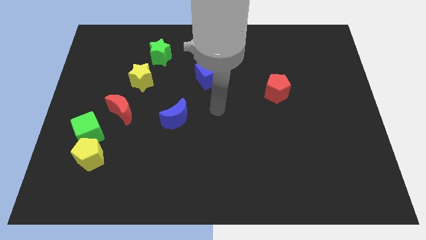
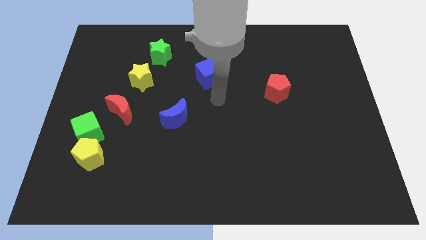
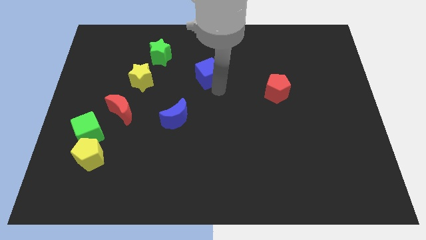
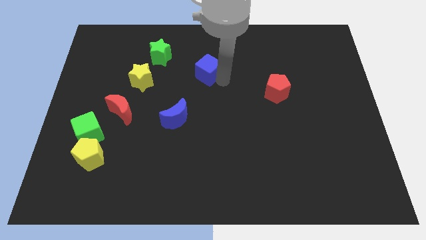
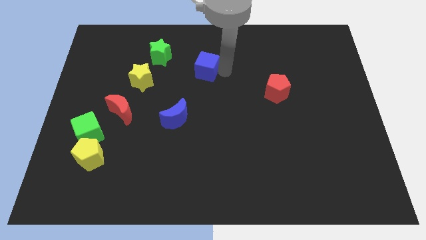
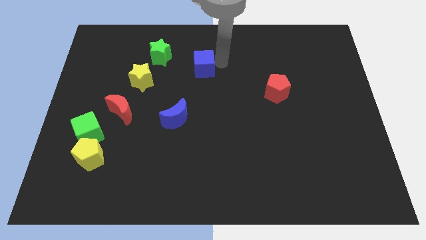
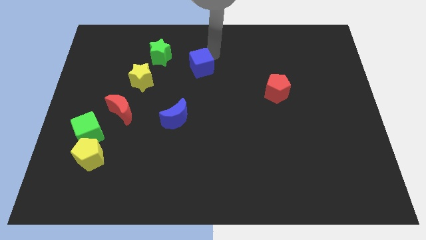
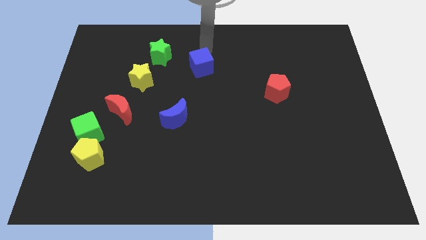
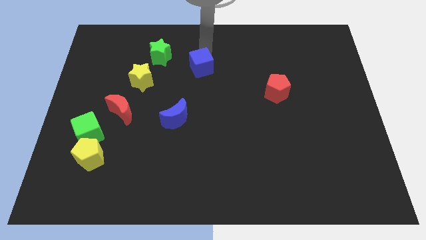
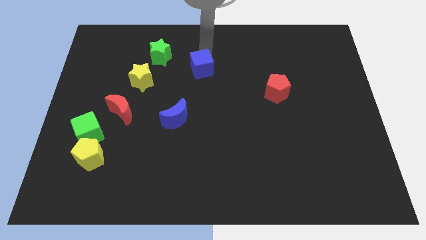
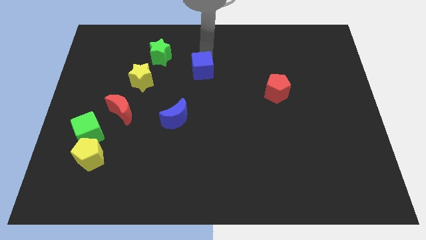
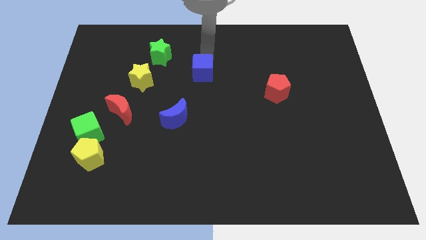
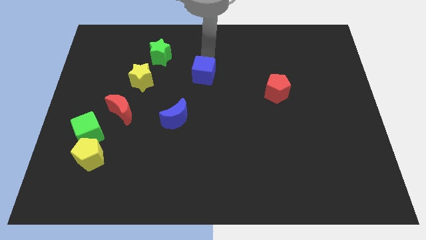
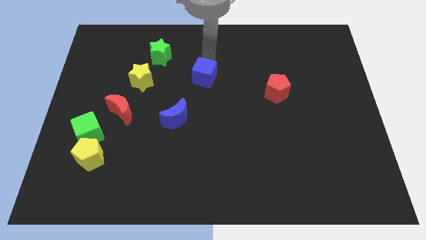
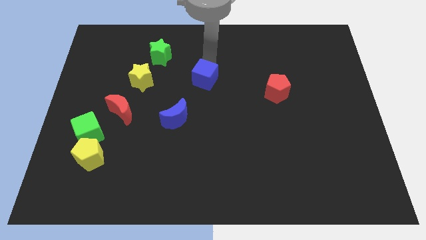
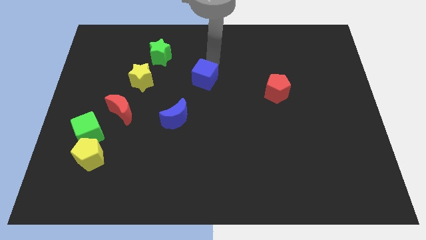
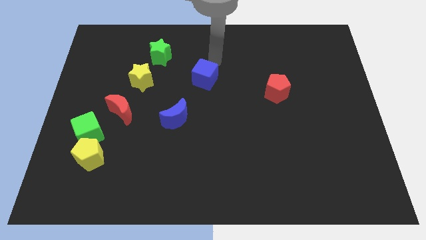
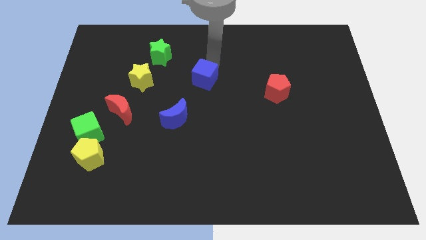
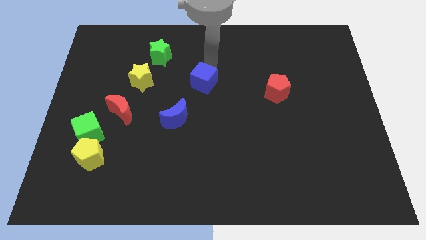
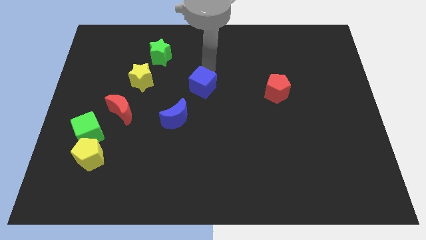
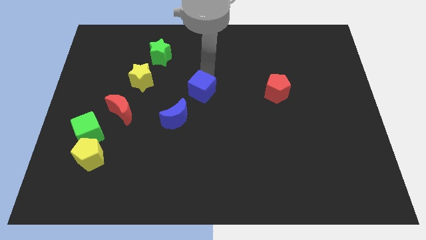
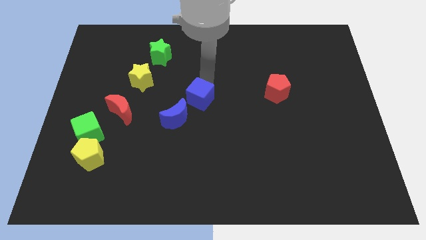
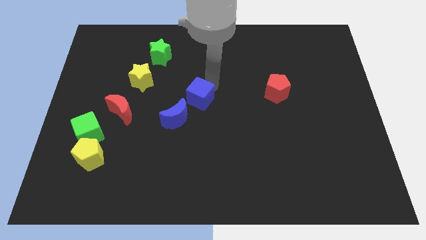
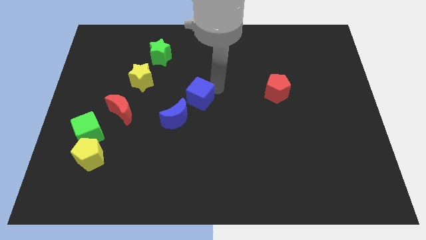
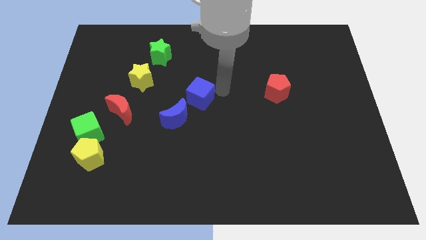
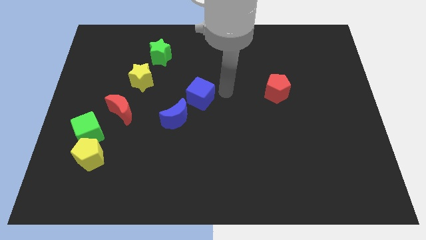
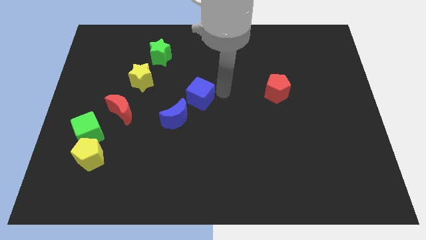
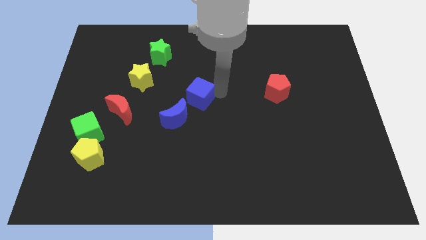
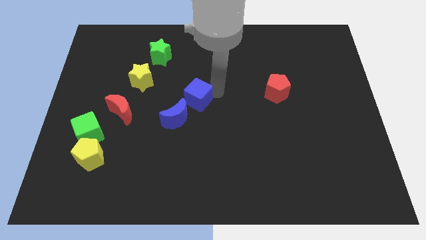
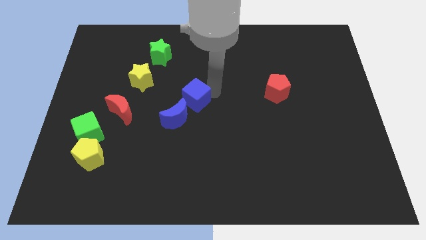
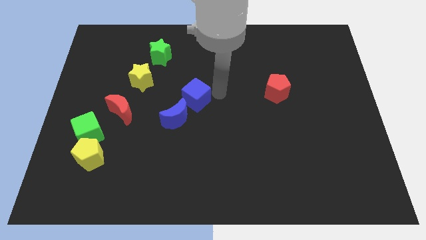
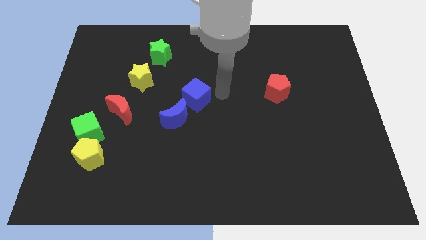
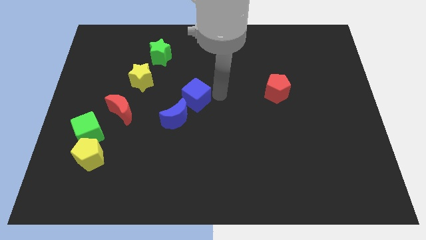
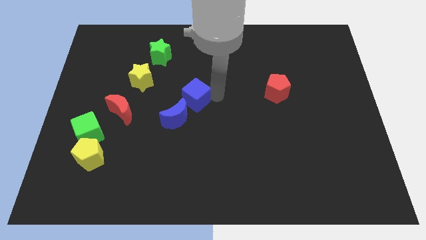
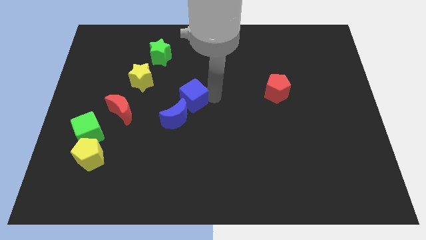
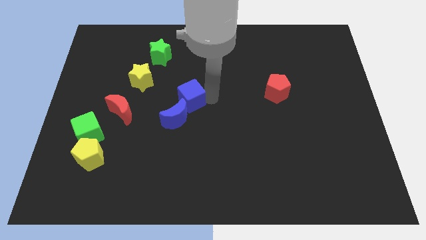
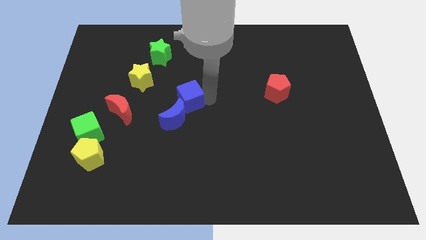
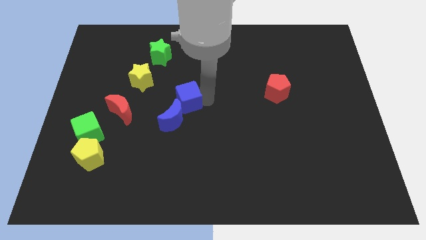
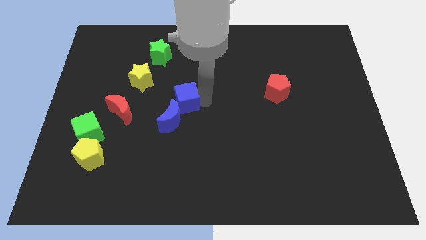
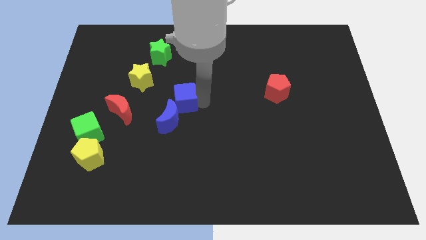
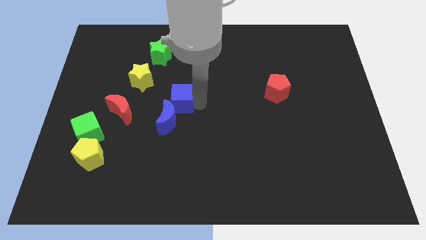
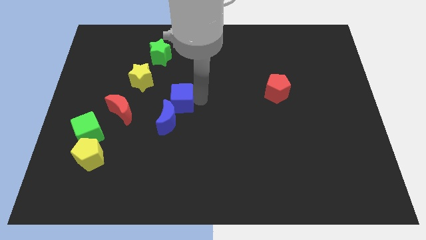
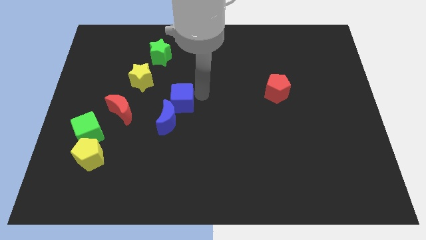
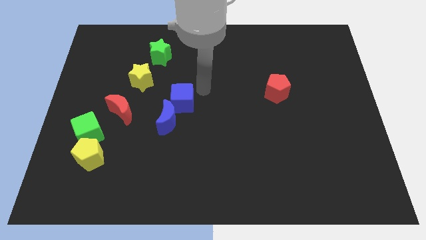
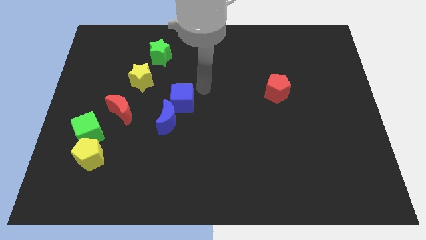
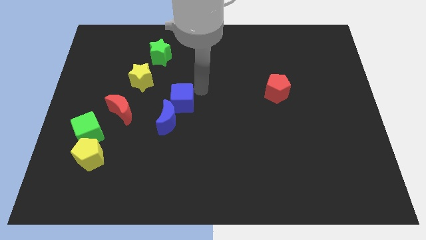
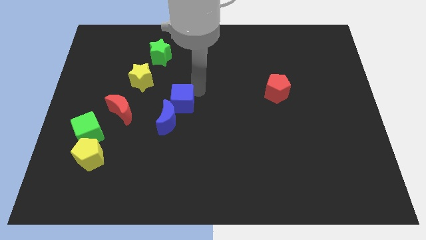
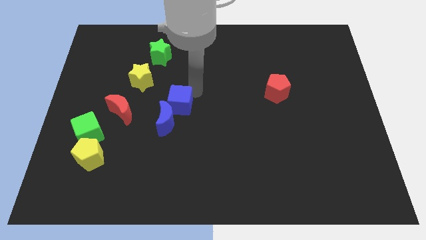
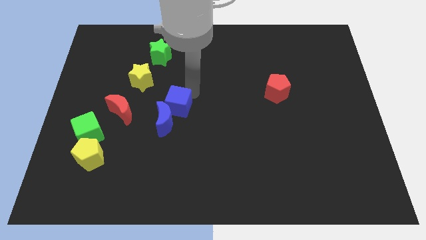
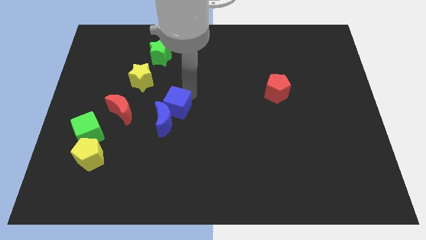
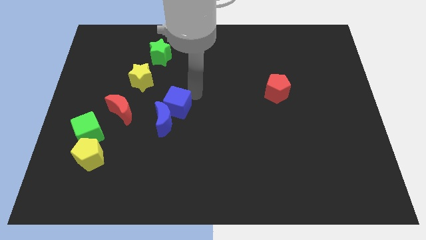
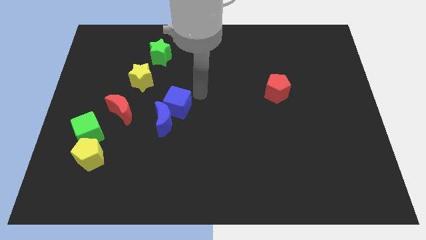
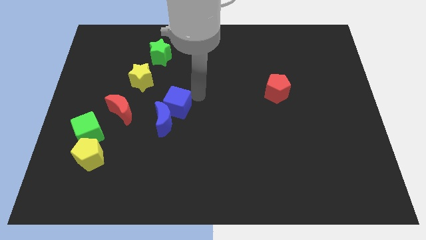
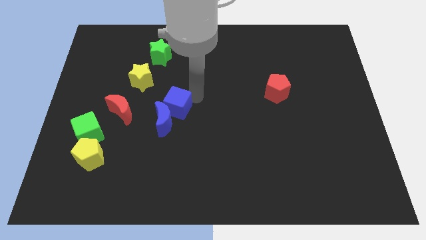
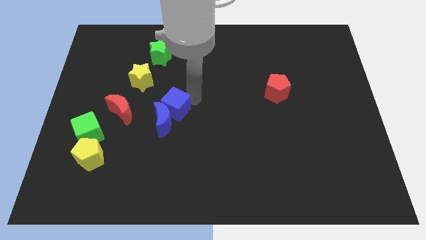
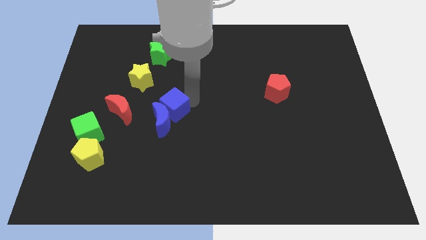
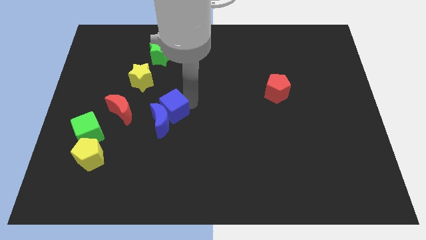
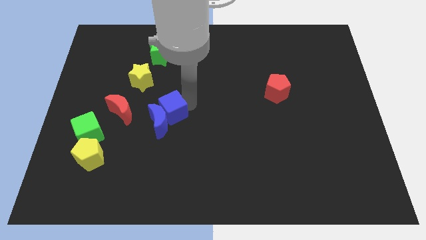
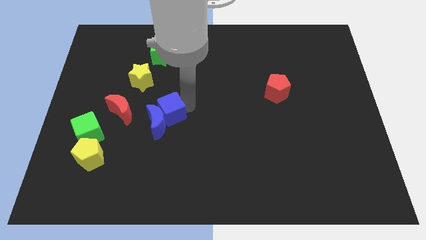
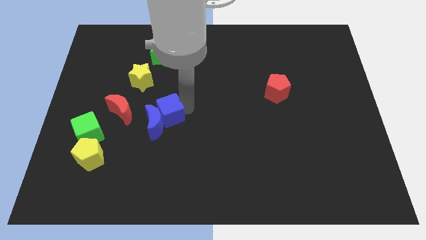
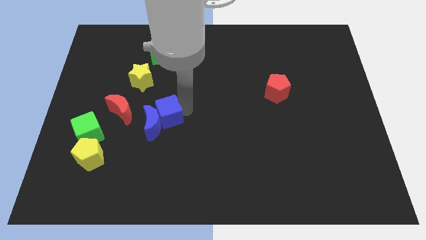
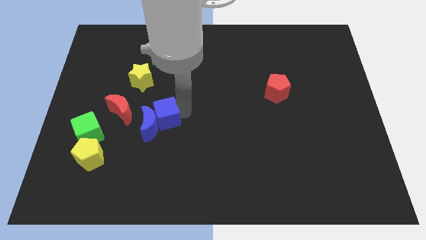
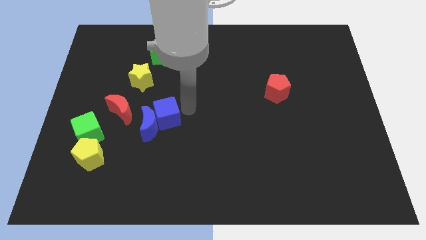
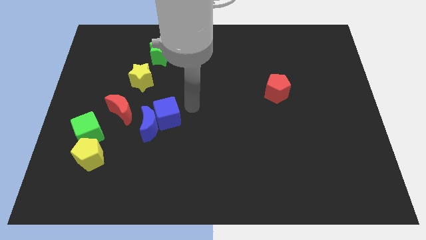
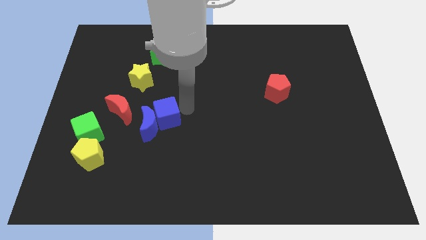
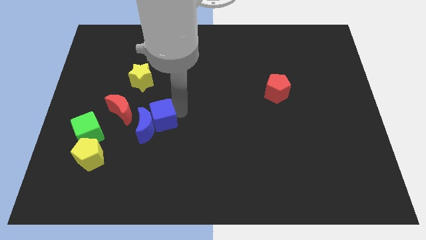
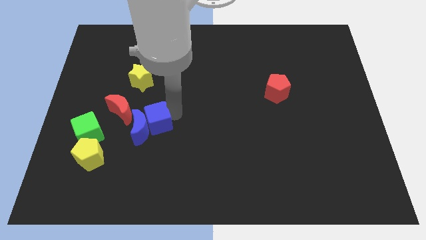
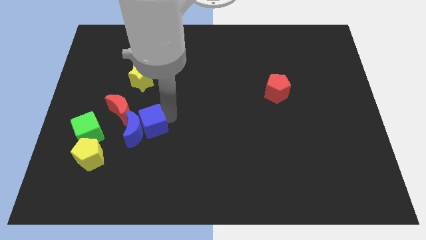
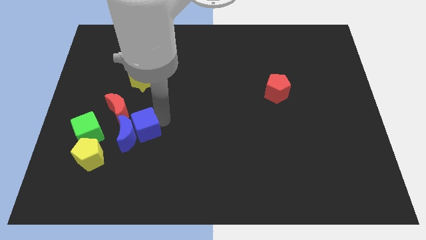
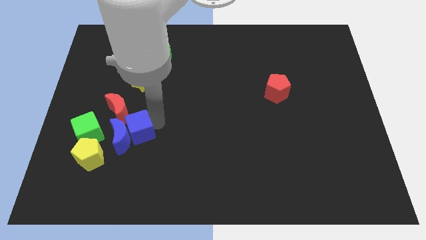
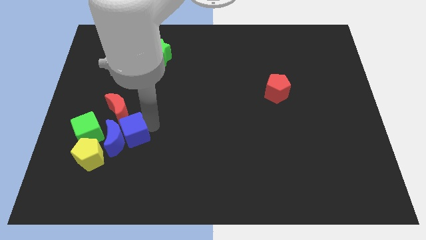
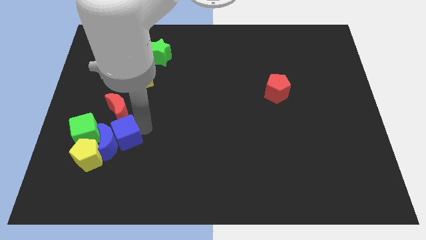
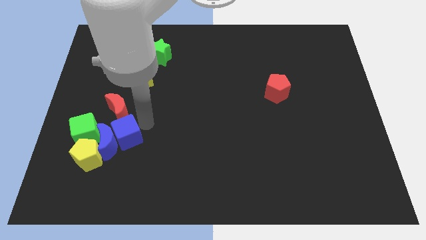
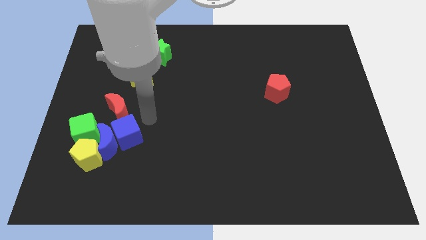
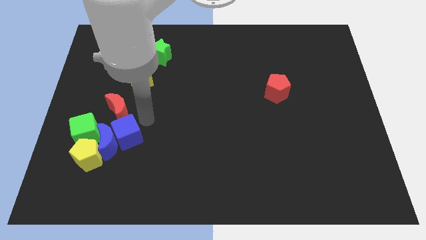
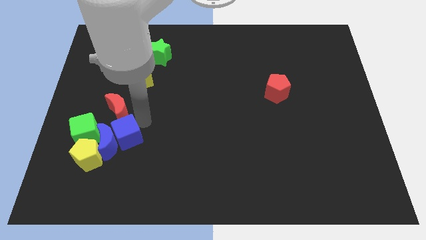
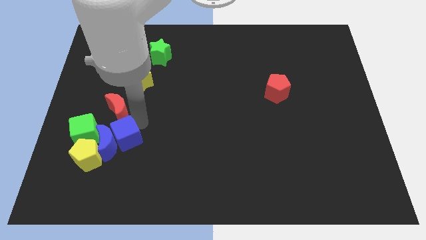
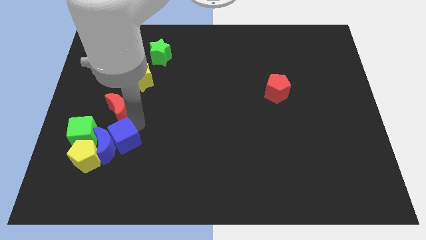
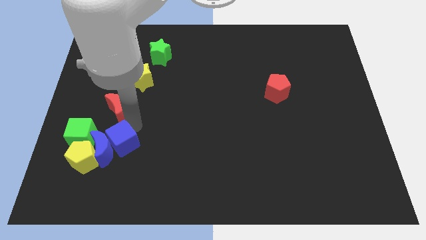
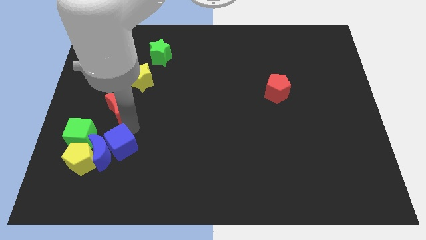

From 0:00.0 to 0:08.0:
slide the blue cube to the bottom right of the green cube
